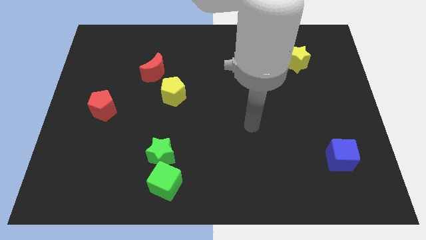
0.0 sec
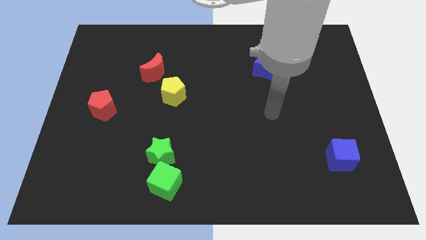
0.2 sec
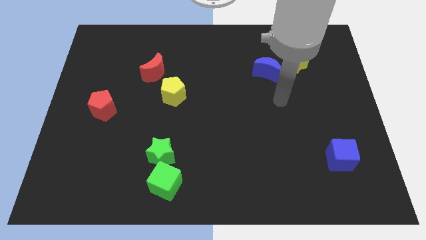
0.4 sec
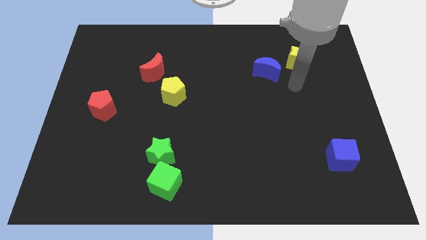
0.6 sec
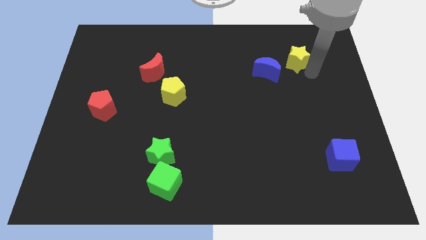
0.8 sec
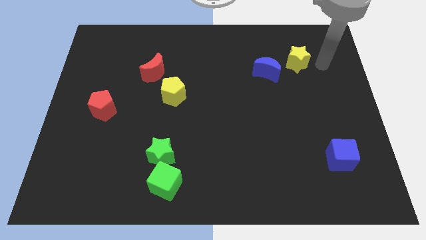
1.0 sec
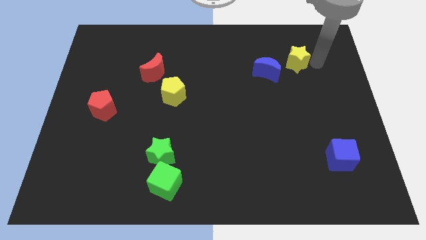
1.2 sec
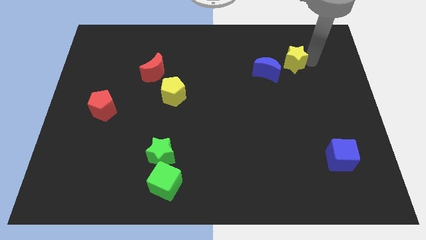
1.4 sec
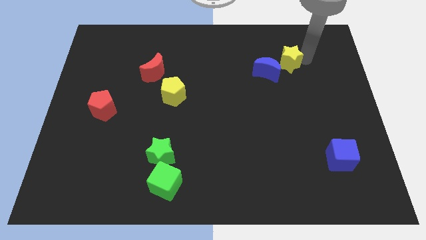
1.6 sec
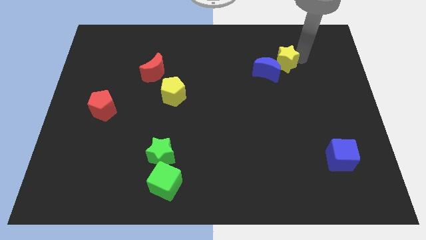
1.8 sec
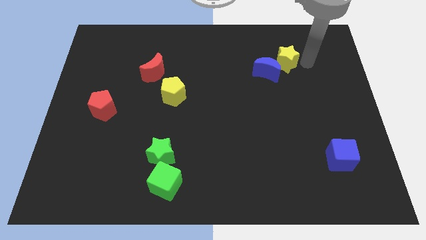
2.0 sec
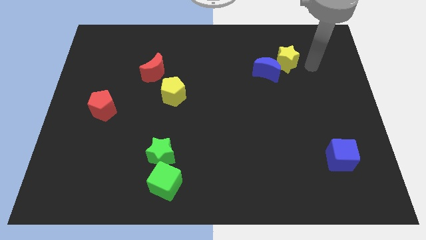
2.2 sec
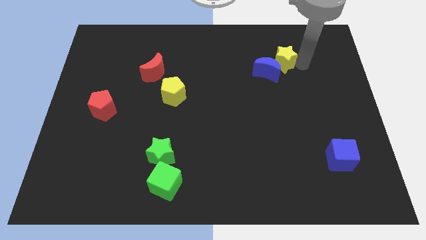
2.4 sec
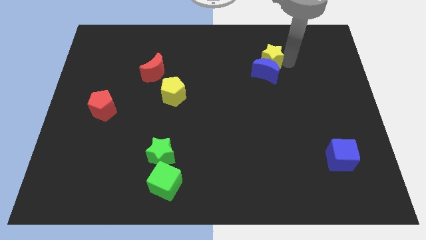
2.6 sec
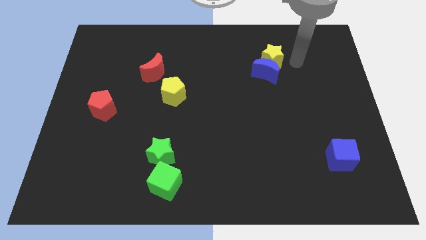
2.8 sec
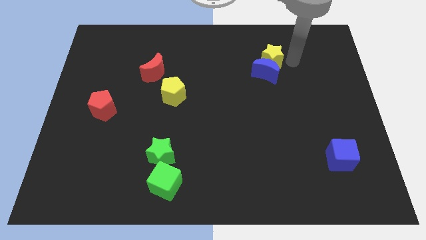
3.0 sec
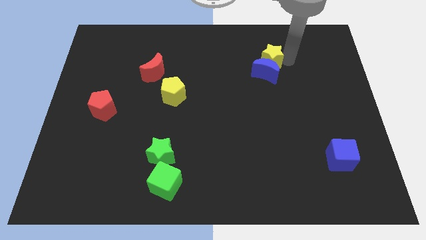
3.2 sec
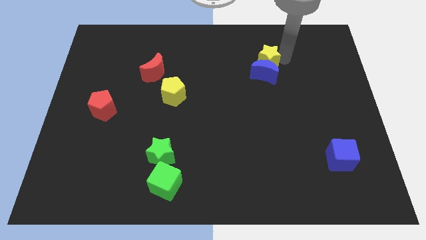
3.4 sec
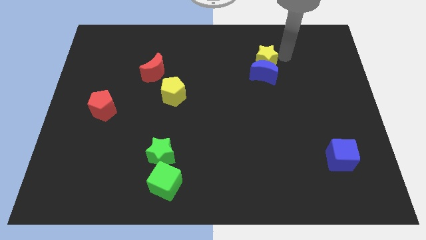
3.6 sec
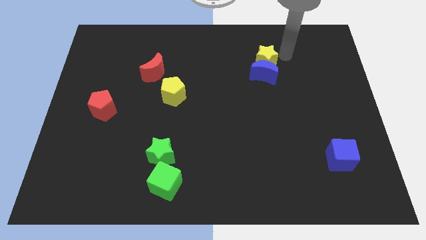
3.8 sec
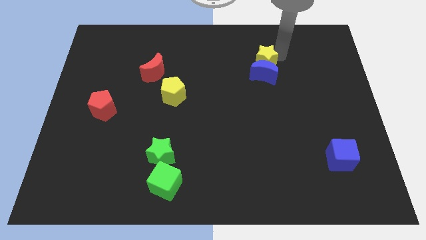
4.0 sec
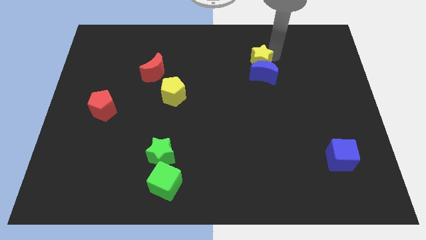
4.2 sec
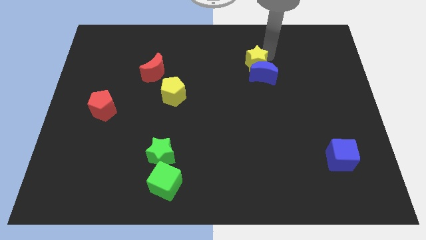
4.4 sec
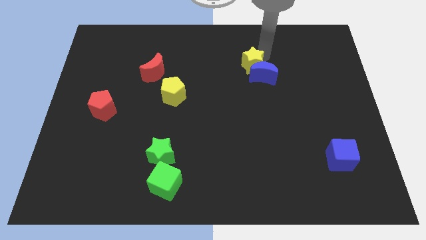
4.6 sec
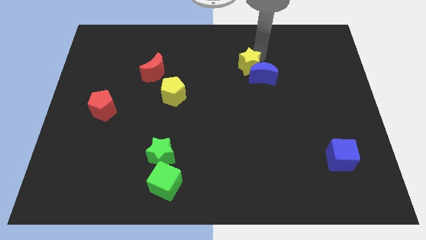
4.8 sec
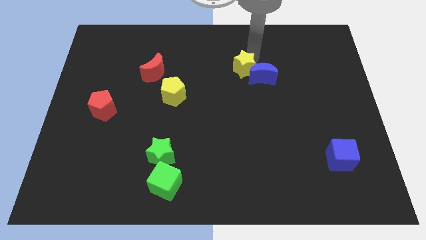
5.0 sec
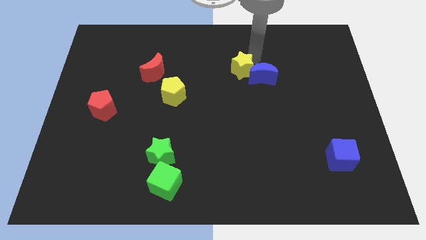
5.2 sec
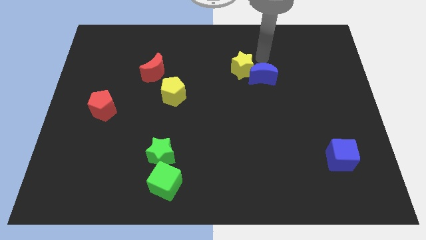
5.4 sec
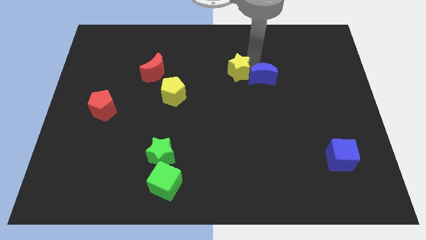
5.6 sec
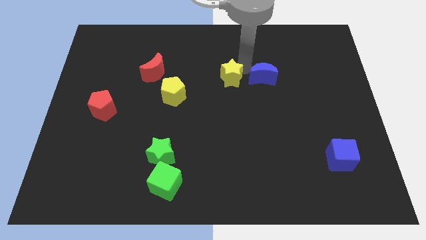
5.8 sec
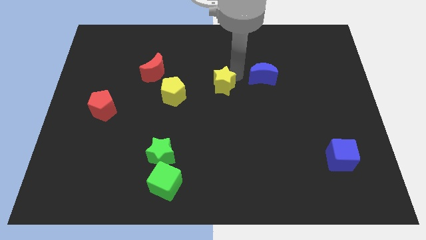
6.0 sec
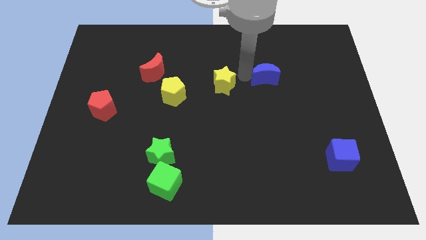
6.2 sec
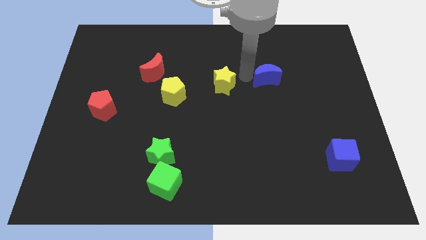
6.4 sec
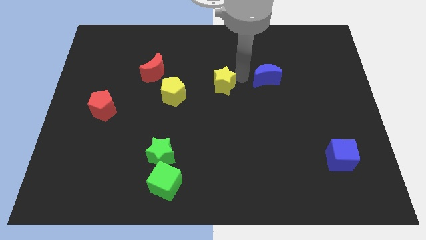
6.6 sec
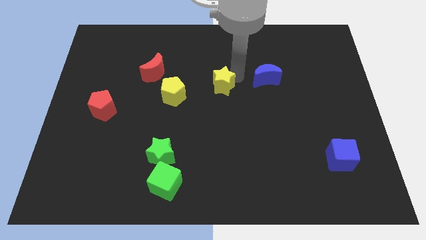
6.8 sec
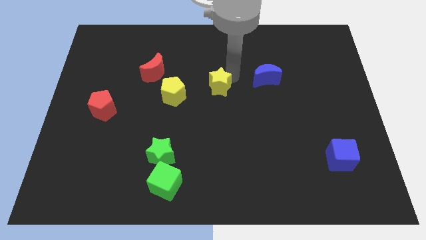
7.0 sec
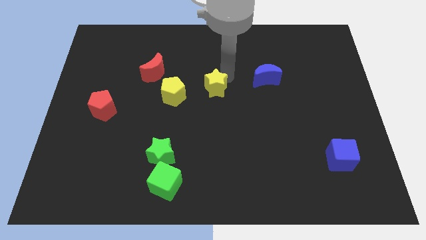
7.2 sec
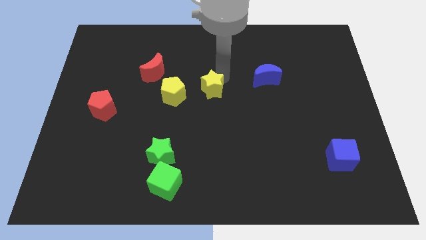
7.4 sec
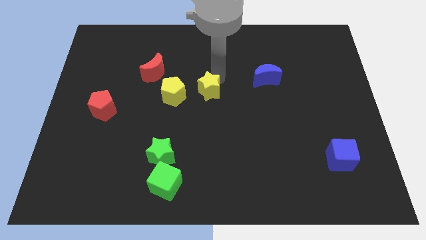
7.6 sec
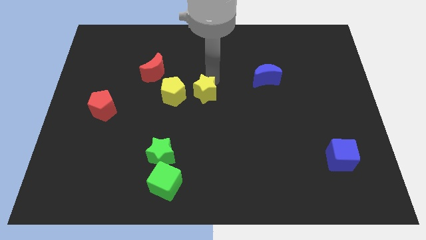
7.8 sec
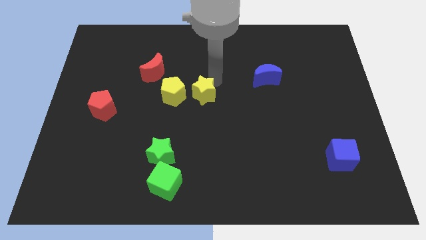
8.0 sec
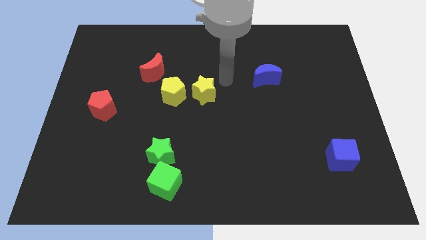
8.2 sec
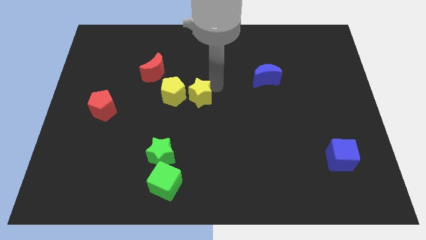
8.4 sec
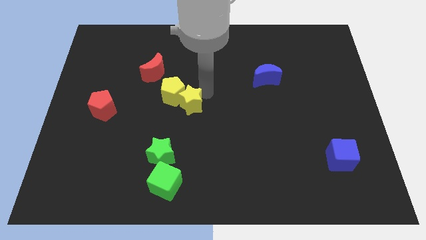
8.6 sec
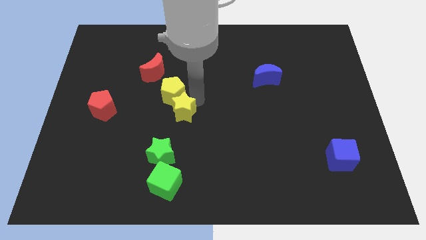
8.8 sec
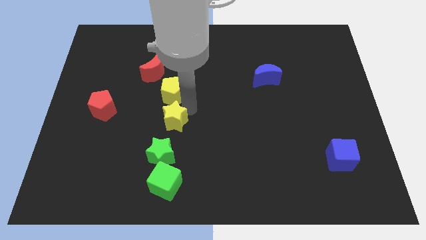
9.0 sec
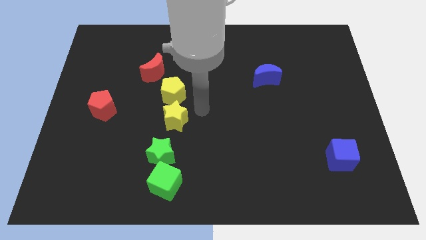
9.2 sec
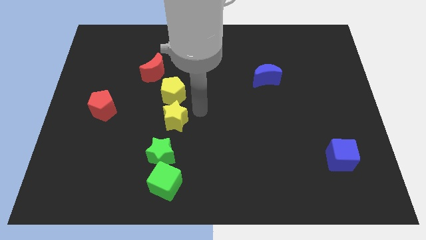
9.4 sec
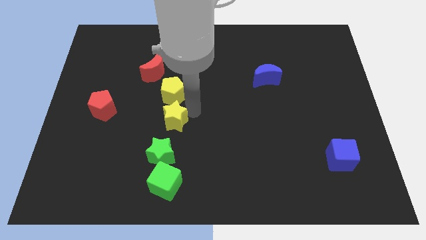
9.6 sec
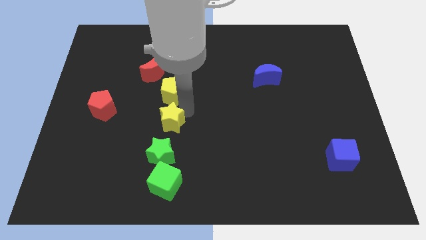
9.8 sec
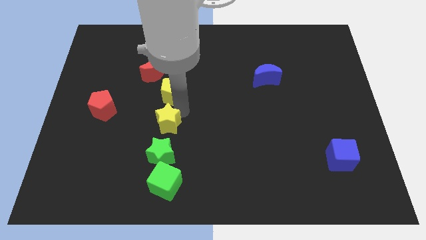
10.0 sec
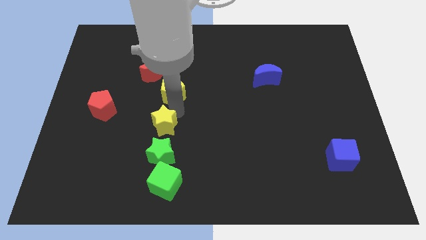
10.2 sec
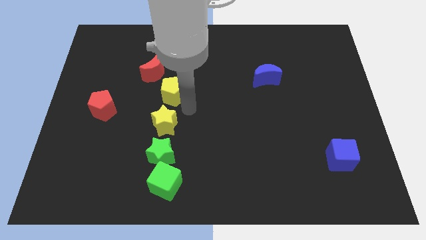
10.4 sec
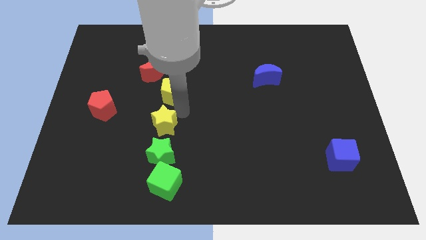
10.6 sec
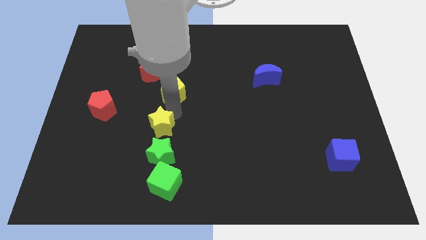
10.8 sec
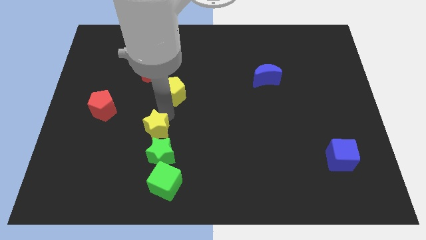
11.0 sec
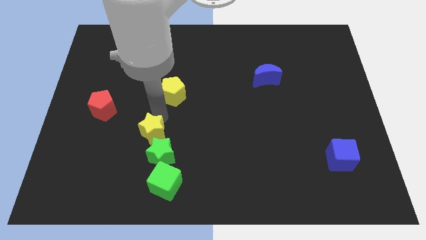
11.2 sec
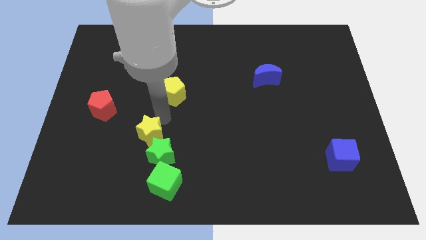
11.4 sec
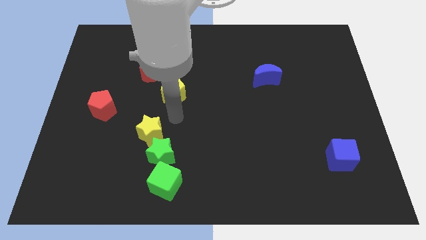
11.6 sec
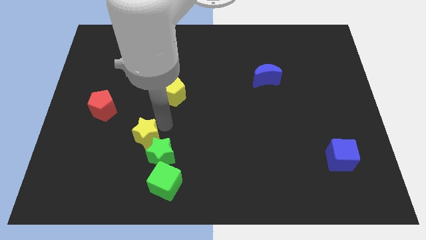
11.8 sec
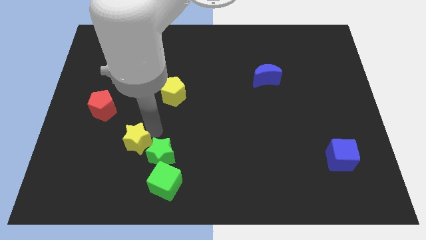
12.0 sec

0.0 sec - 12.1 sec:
put the yellow star to the top left of the green cube
